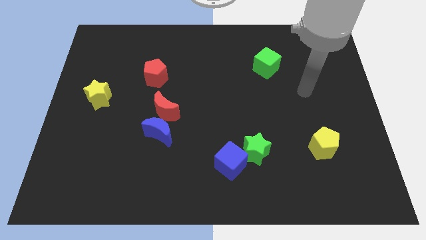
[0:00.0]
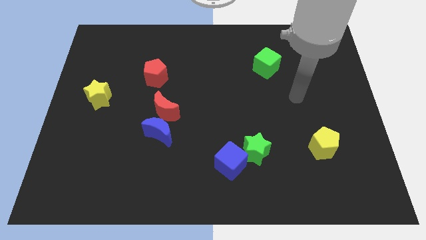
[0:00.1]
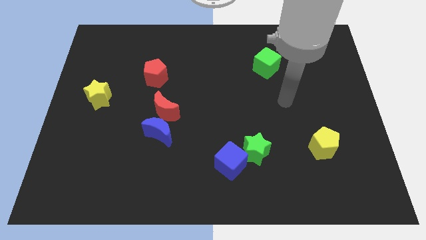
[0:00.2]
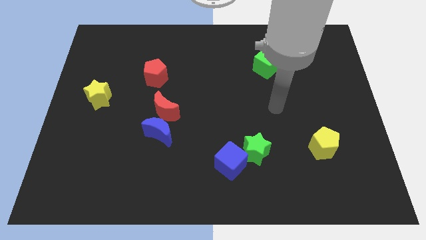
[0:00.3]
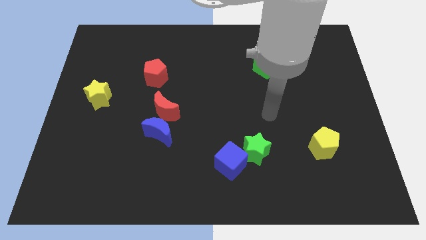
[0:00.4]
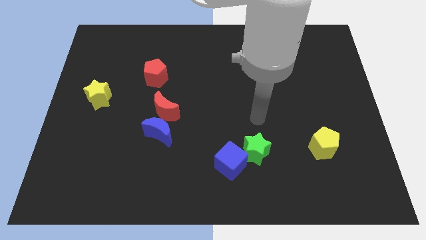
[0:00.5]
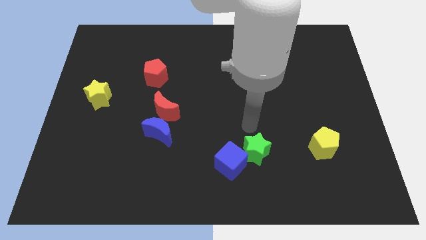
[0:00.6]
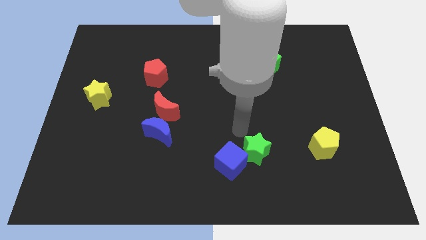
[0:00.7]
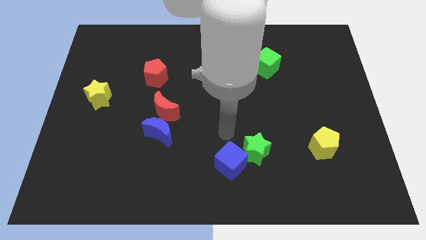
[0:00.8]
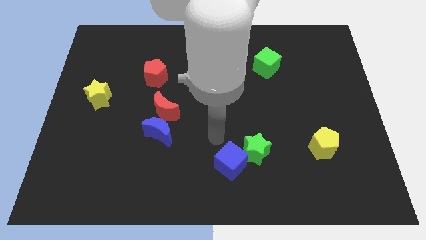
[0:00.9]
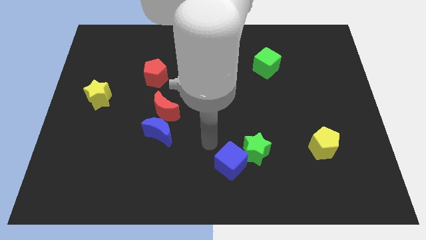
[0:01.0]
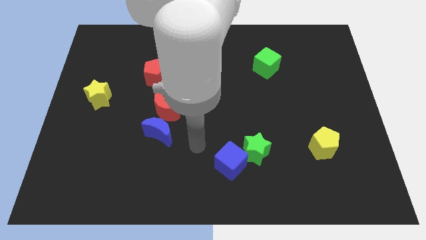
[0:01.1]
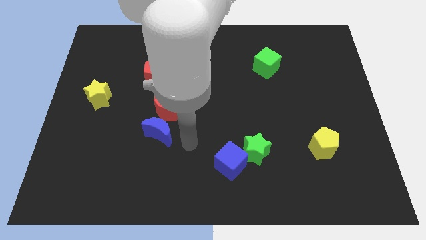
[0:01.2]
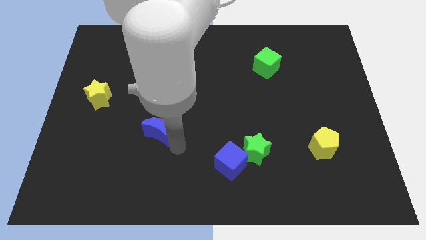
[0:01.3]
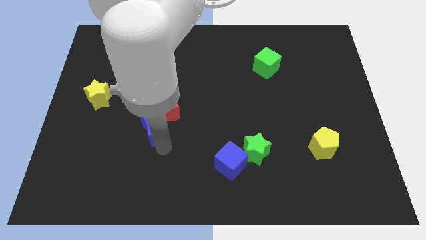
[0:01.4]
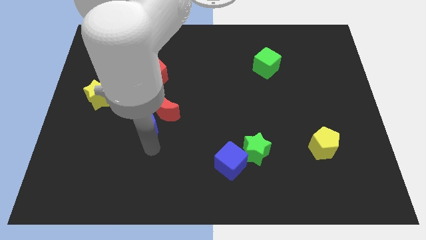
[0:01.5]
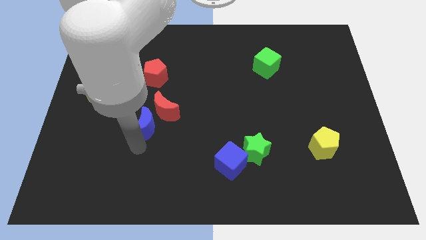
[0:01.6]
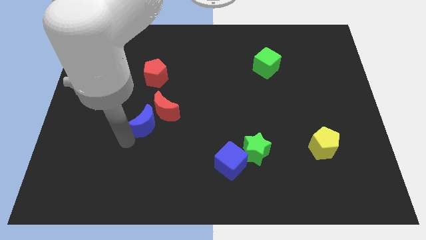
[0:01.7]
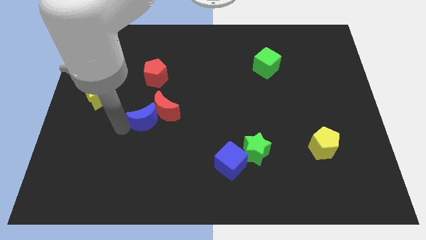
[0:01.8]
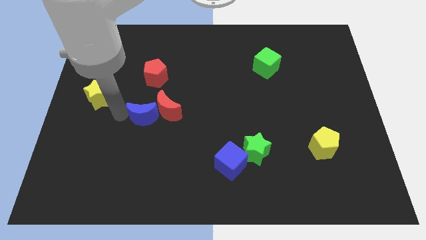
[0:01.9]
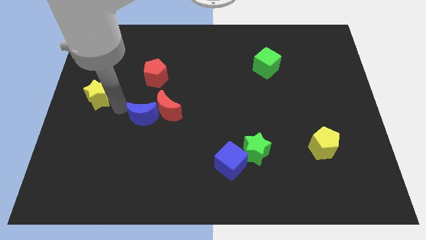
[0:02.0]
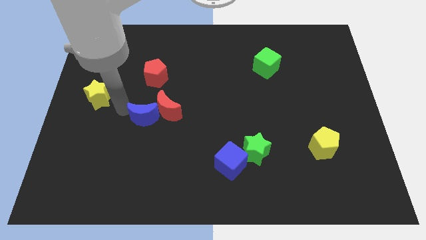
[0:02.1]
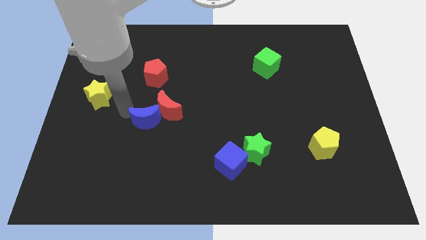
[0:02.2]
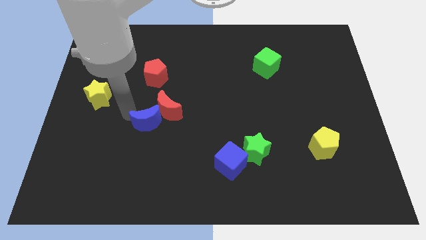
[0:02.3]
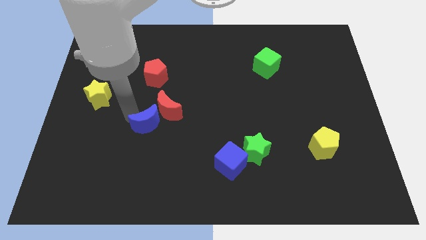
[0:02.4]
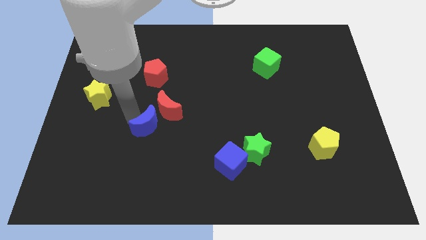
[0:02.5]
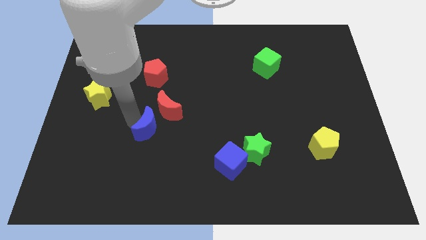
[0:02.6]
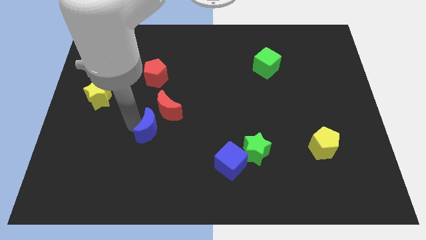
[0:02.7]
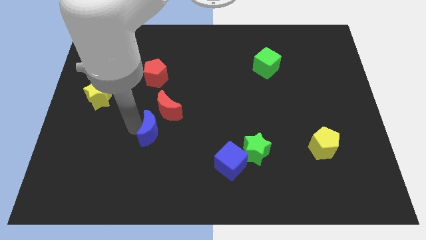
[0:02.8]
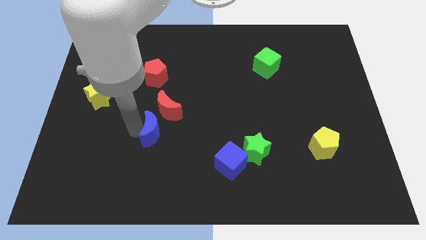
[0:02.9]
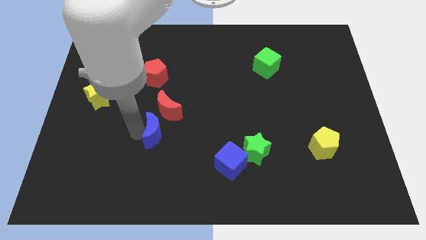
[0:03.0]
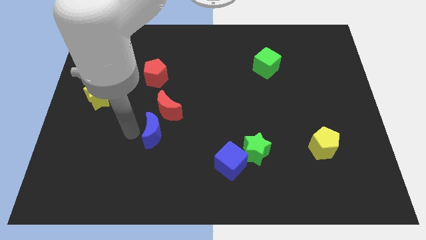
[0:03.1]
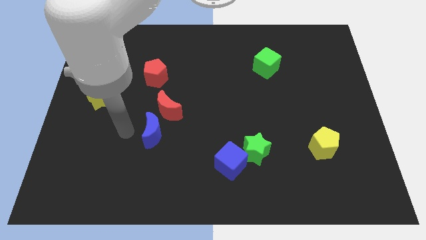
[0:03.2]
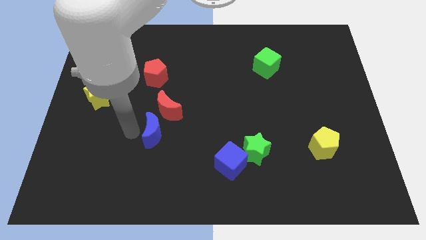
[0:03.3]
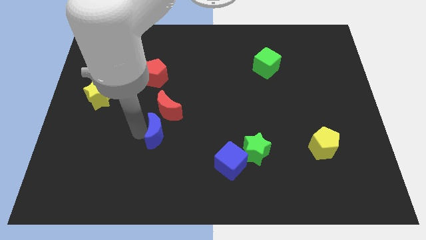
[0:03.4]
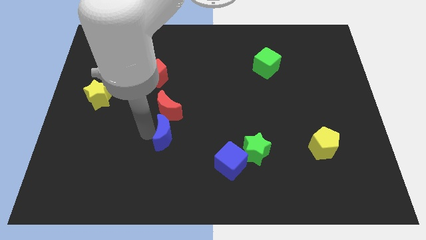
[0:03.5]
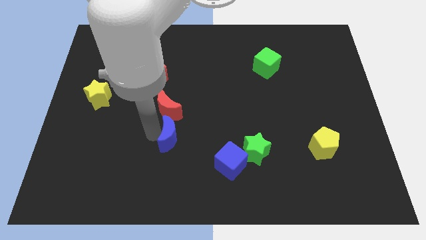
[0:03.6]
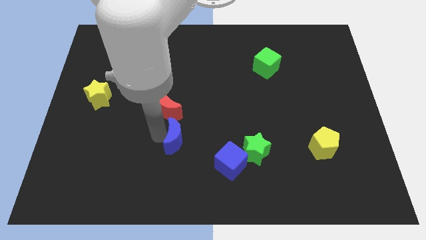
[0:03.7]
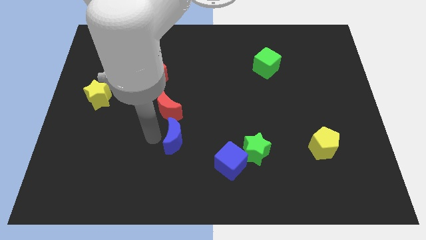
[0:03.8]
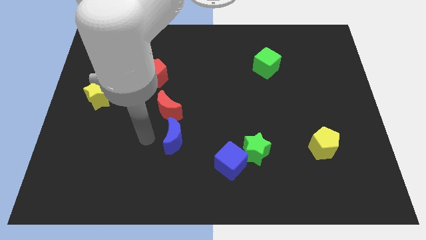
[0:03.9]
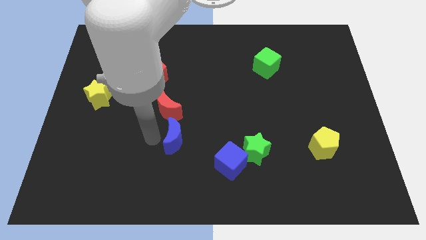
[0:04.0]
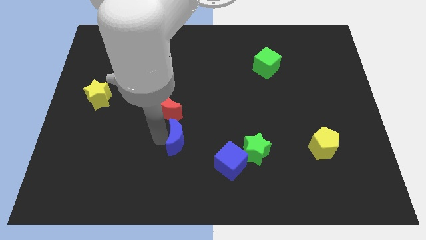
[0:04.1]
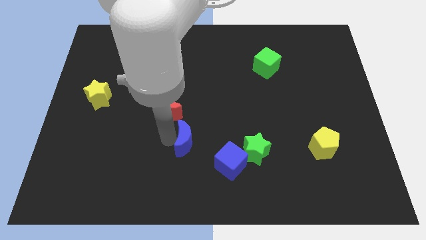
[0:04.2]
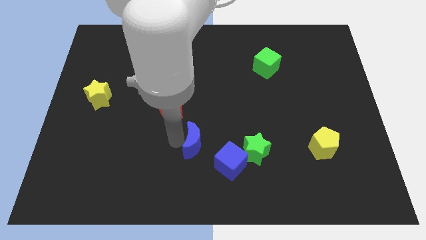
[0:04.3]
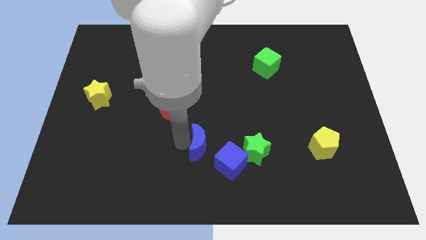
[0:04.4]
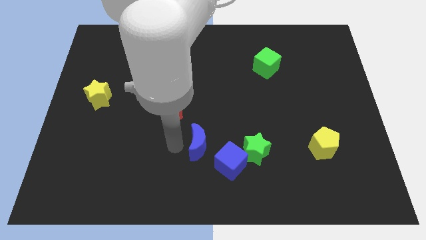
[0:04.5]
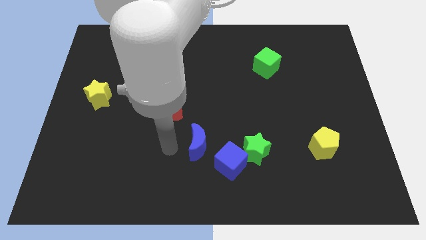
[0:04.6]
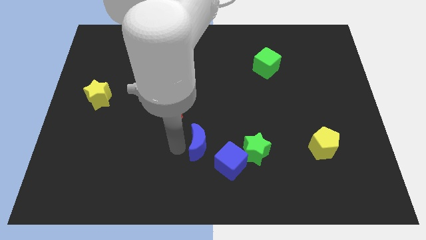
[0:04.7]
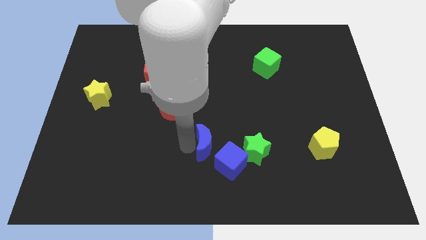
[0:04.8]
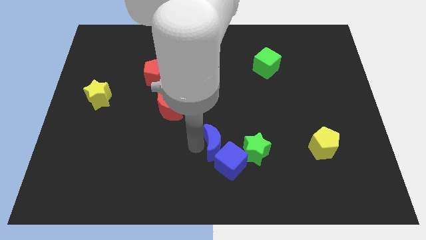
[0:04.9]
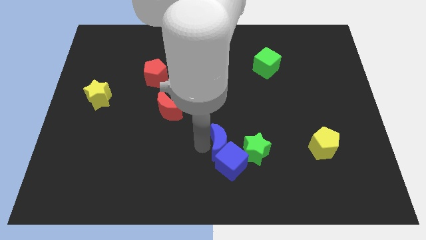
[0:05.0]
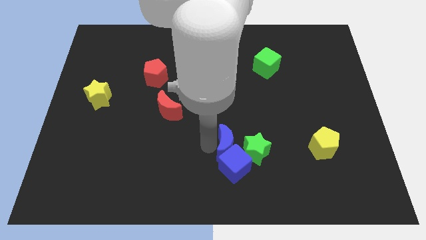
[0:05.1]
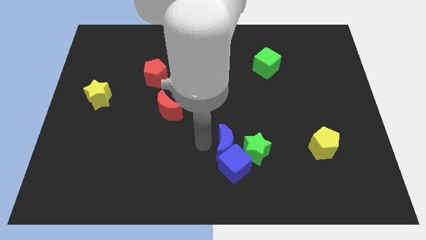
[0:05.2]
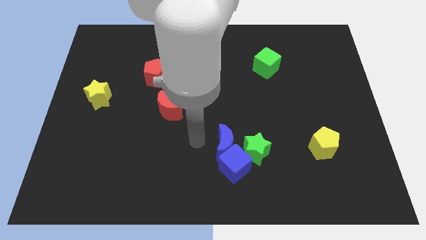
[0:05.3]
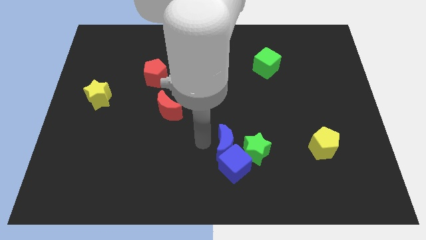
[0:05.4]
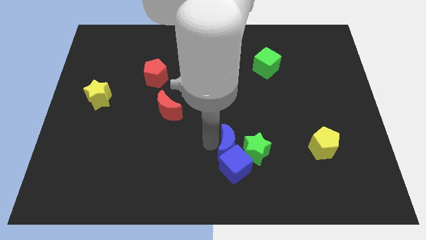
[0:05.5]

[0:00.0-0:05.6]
move the blue moon close to the green star

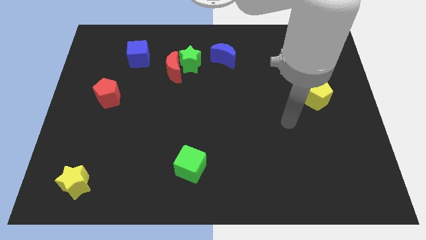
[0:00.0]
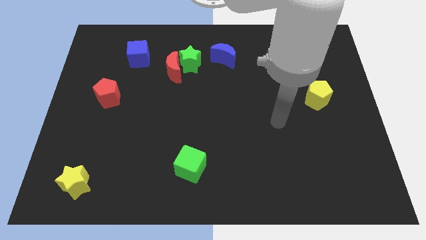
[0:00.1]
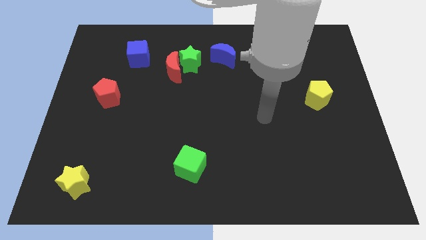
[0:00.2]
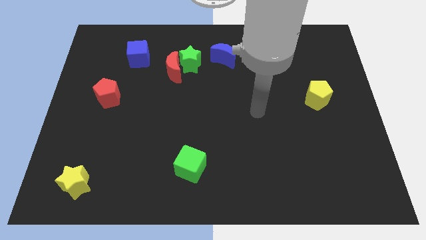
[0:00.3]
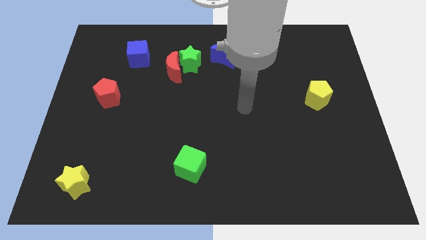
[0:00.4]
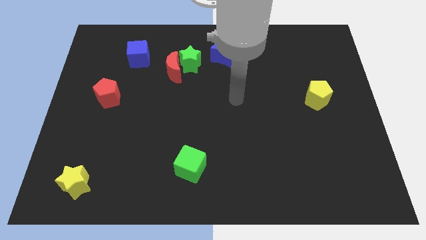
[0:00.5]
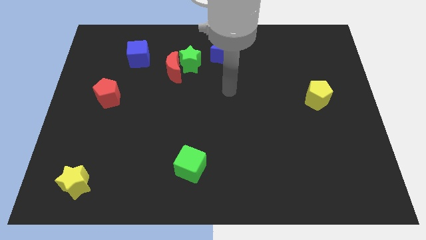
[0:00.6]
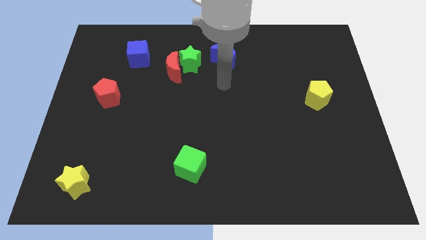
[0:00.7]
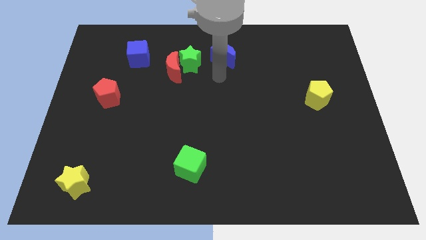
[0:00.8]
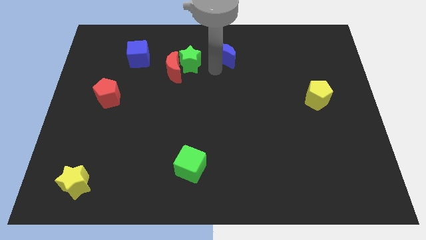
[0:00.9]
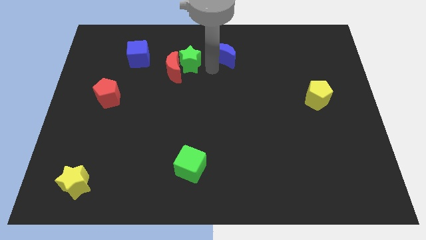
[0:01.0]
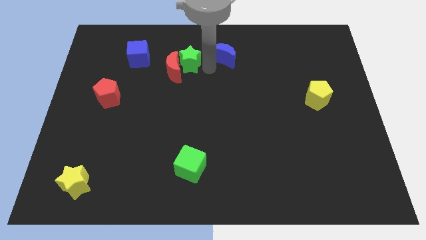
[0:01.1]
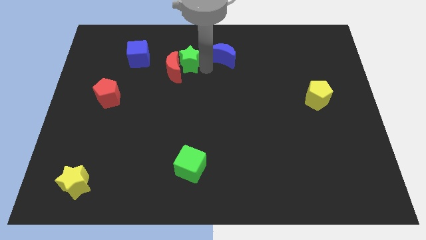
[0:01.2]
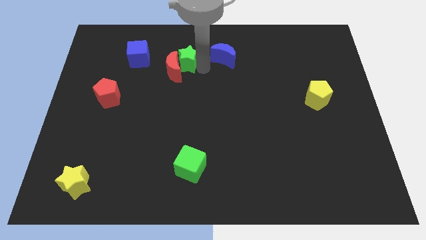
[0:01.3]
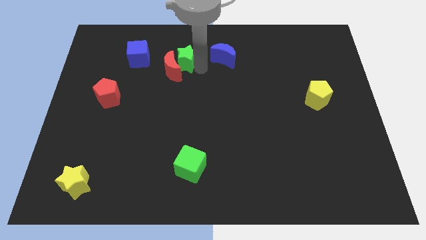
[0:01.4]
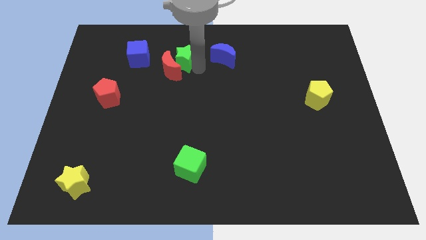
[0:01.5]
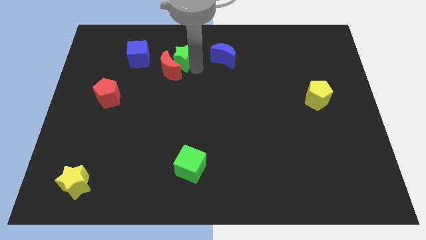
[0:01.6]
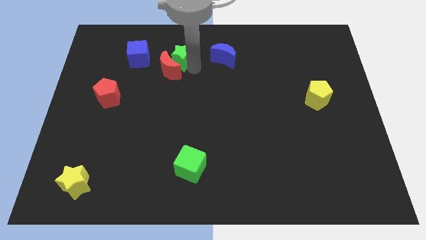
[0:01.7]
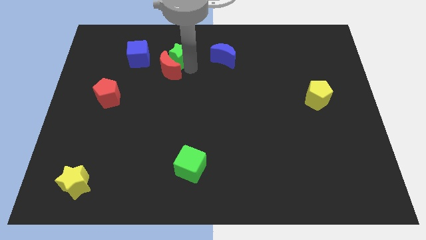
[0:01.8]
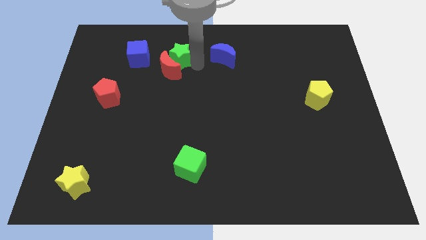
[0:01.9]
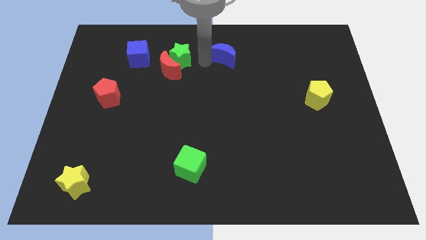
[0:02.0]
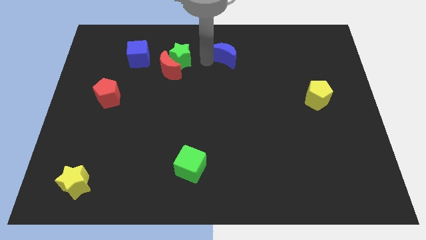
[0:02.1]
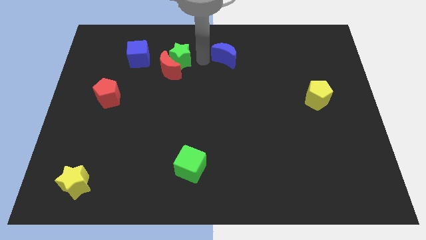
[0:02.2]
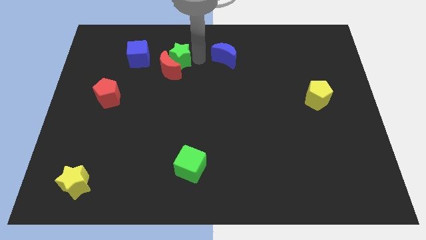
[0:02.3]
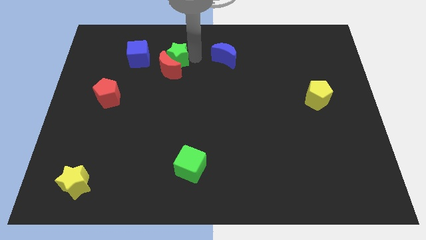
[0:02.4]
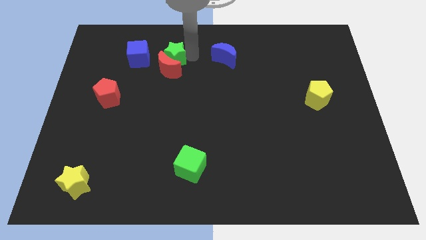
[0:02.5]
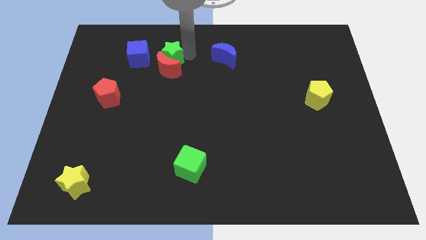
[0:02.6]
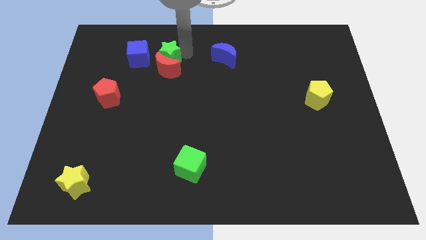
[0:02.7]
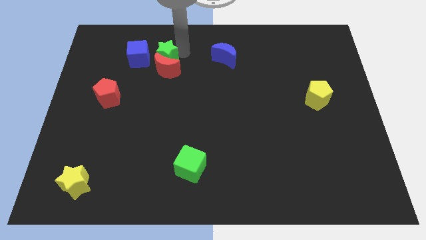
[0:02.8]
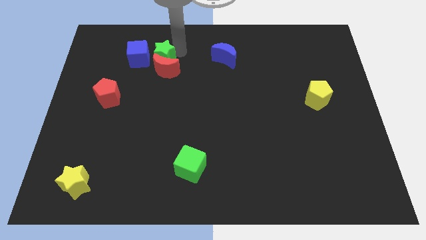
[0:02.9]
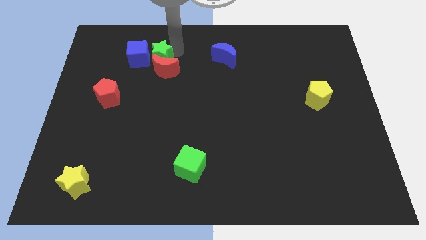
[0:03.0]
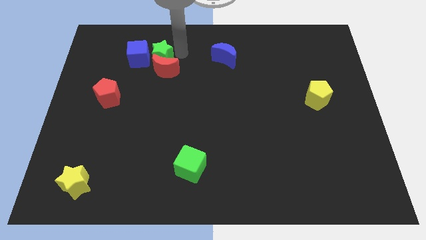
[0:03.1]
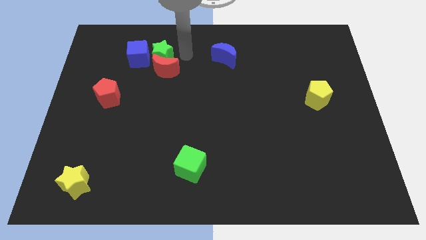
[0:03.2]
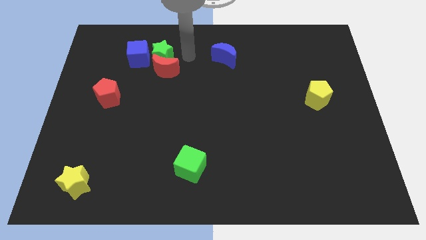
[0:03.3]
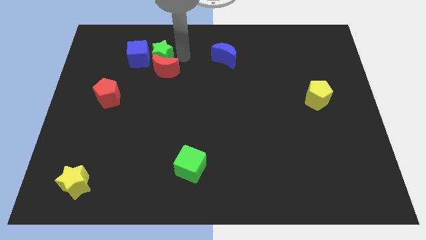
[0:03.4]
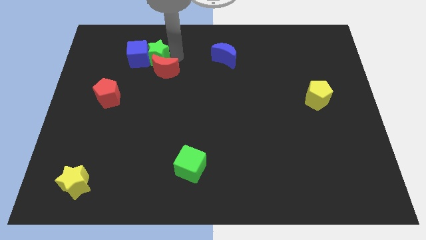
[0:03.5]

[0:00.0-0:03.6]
move the green star to the blue cube
